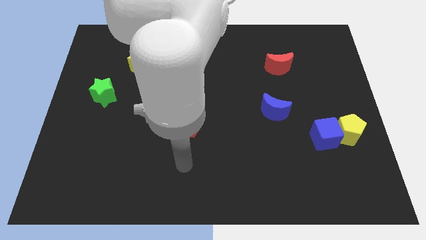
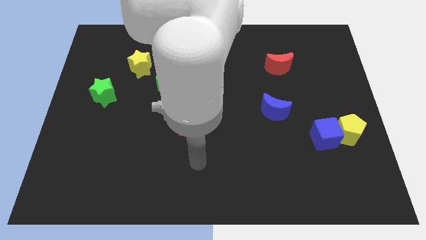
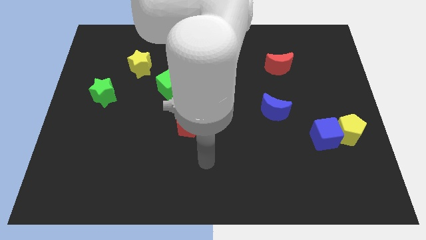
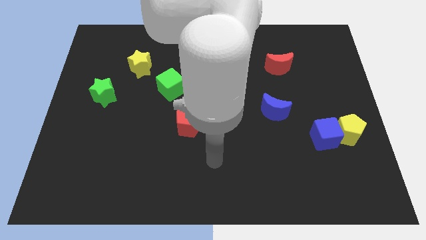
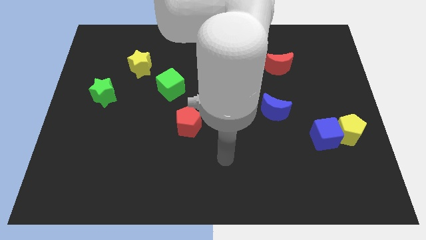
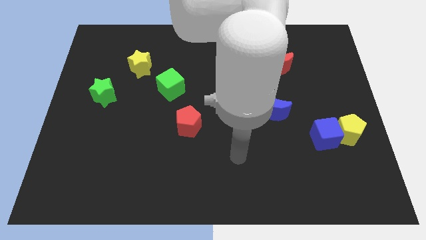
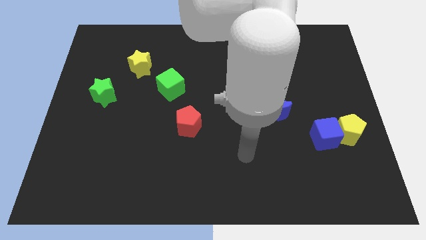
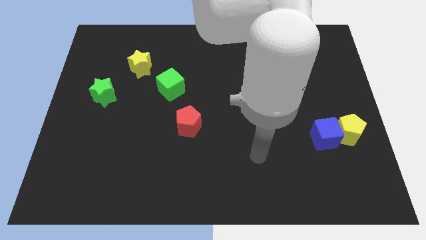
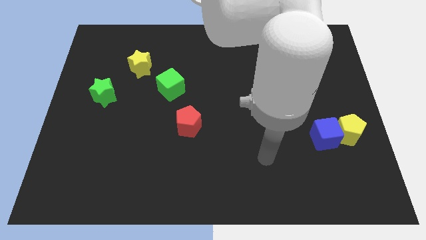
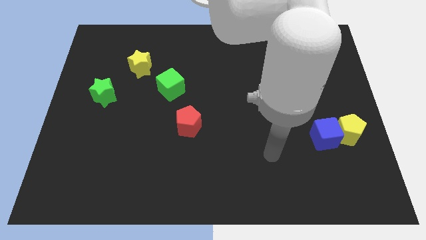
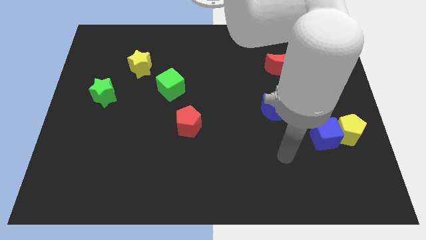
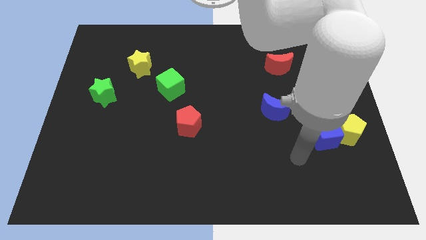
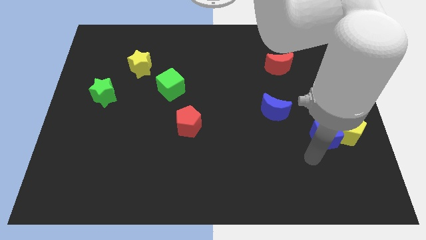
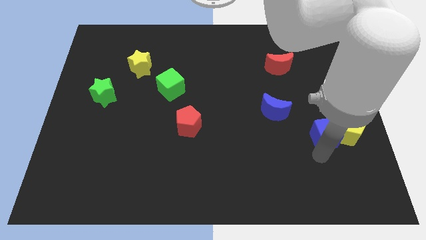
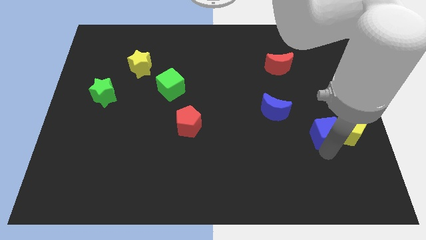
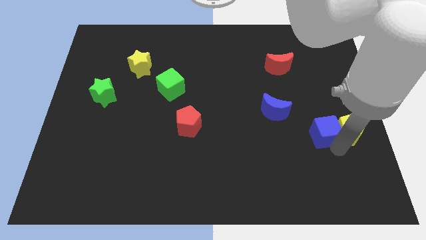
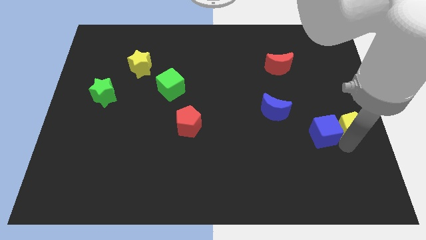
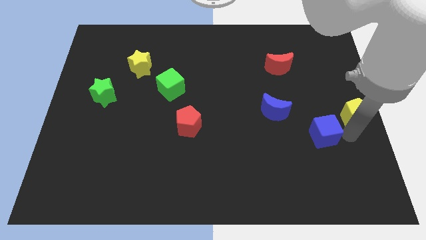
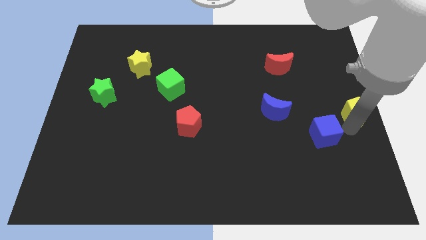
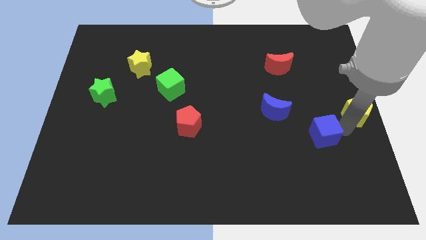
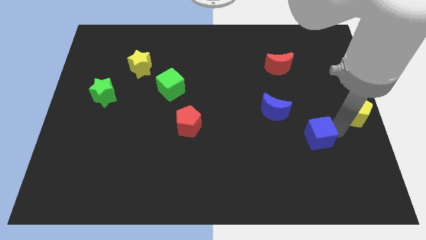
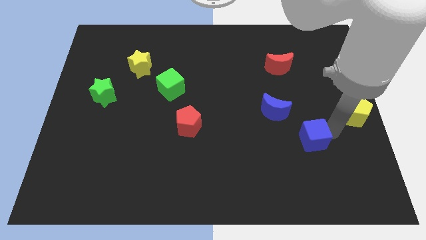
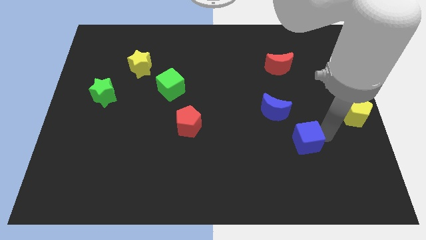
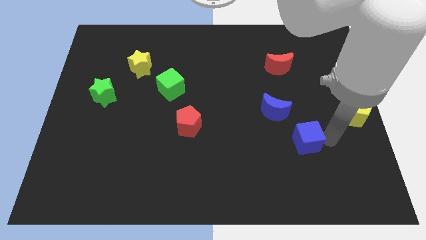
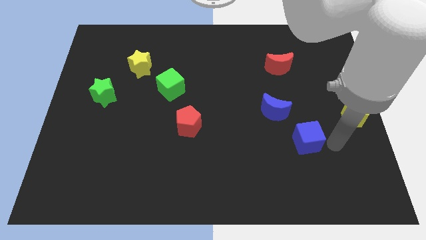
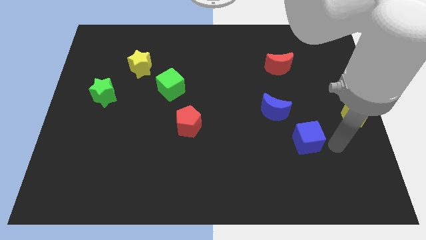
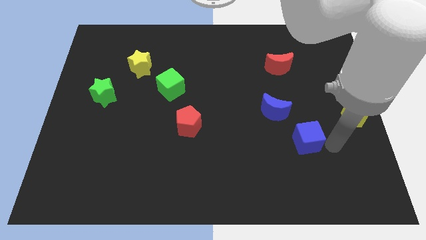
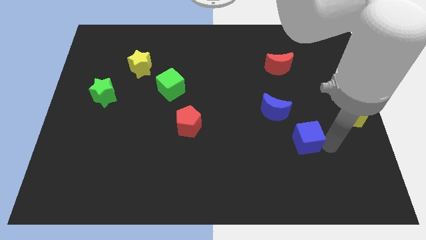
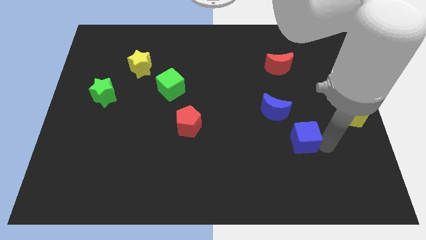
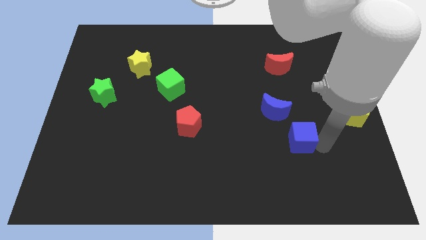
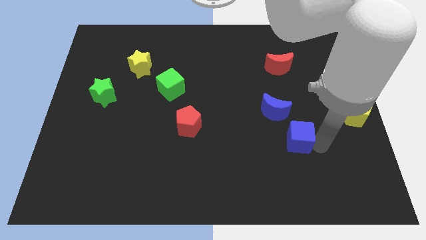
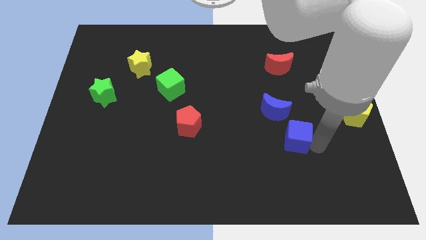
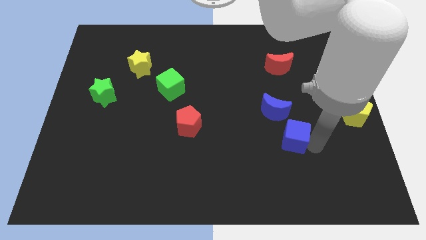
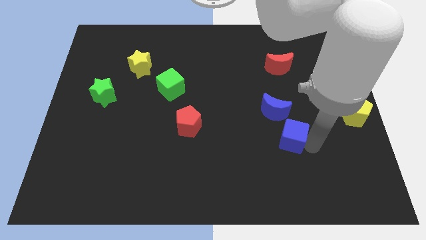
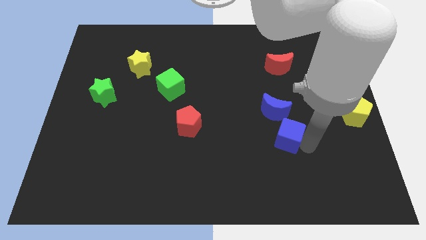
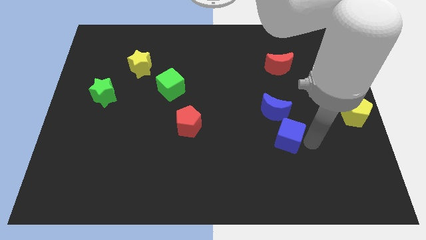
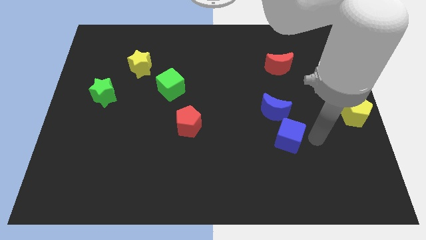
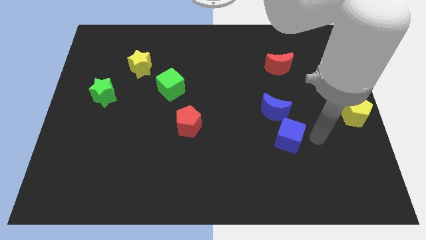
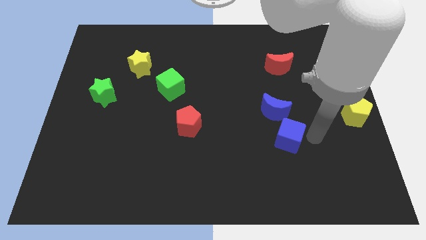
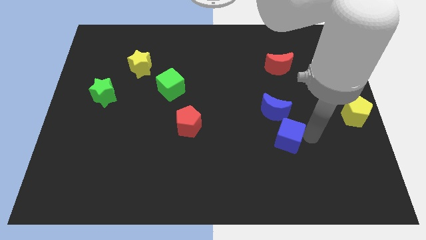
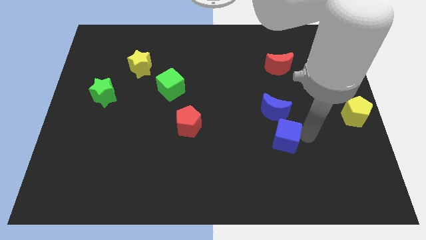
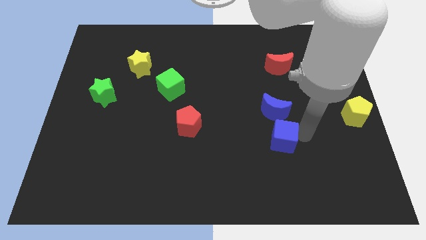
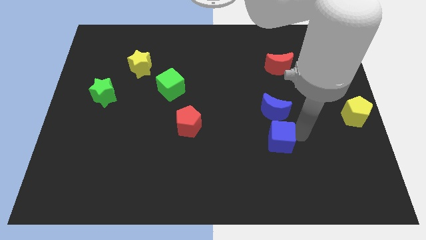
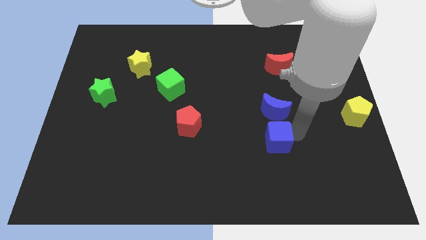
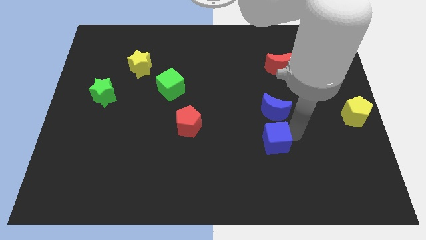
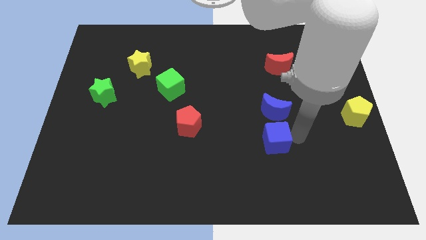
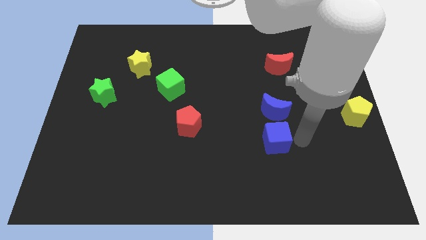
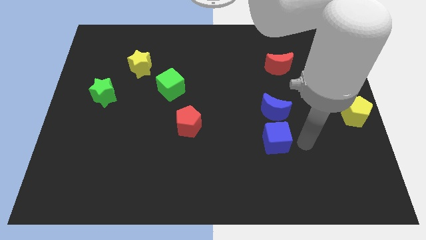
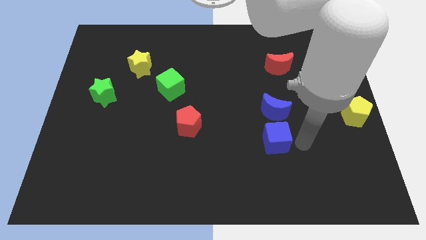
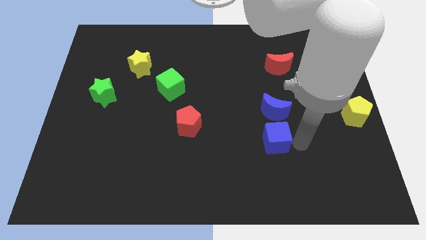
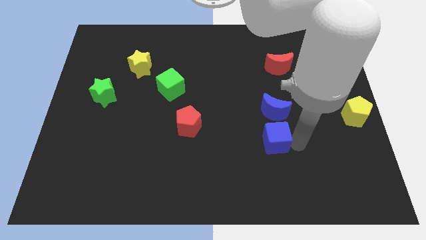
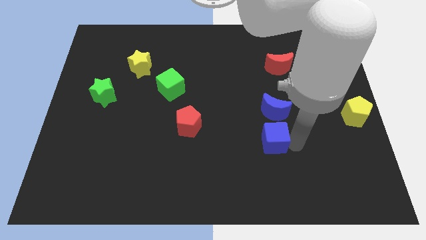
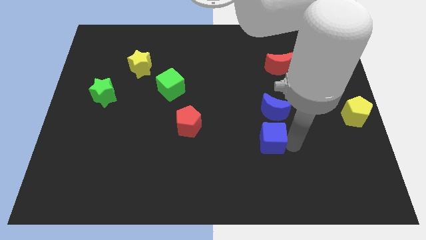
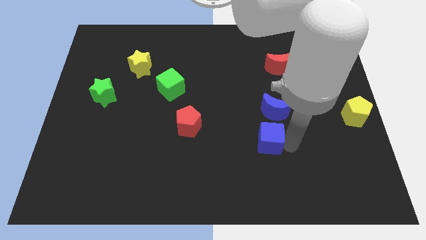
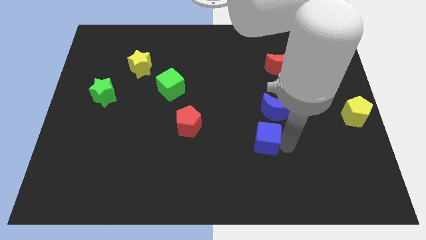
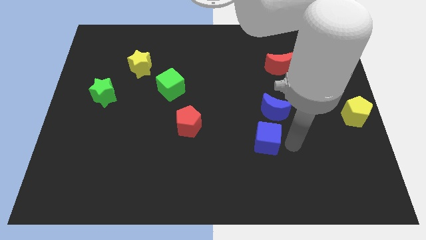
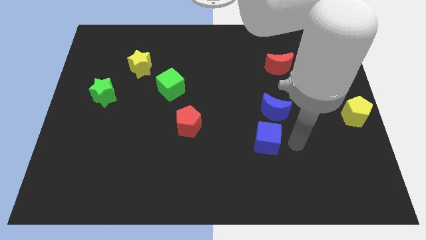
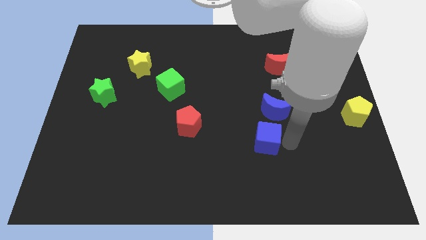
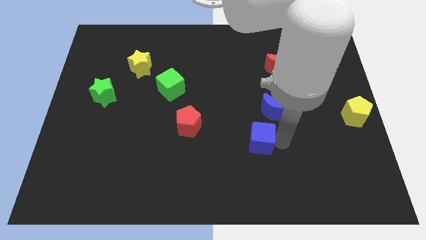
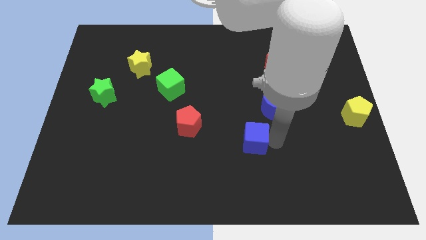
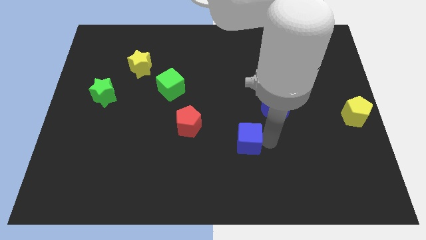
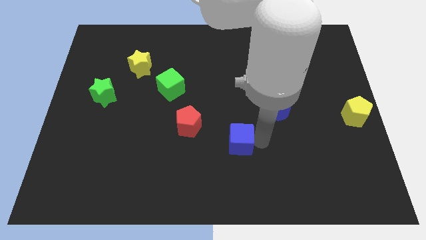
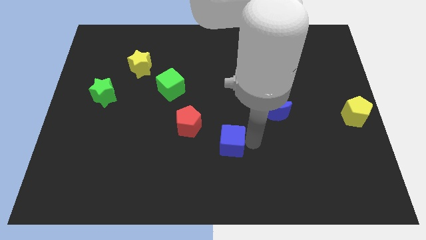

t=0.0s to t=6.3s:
slide the blue cube left

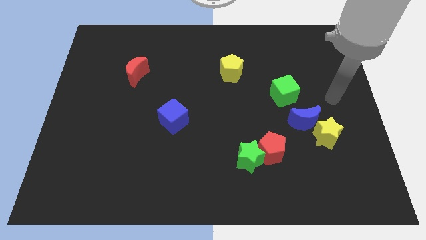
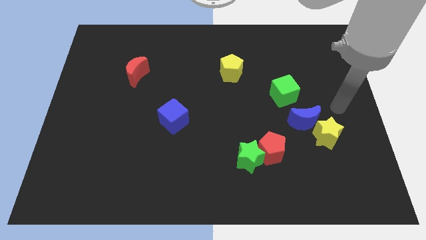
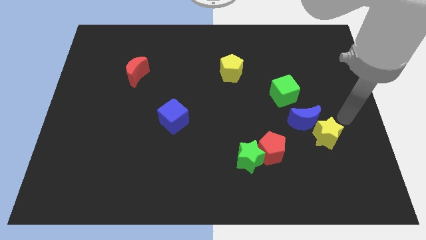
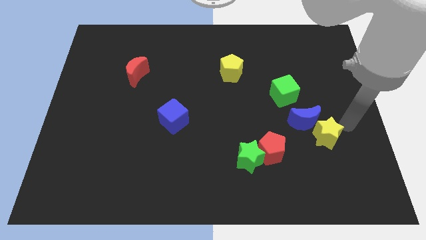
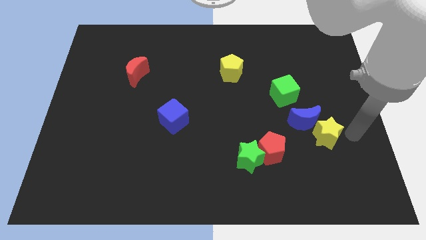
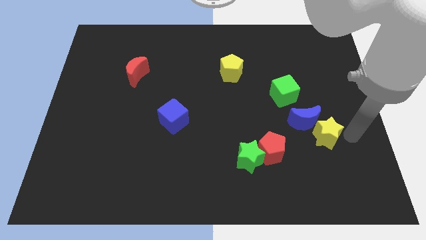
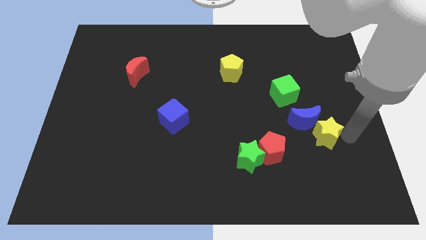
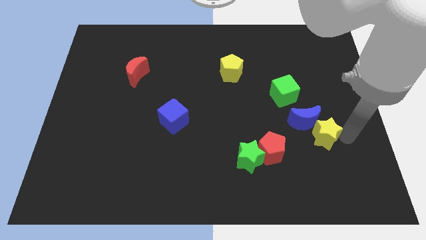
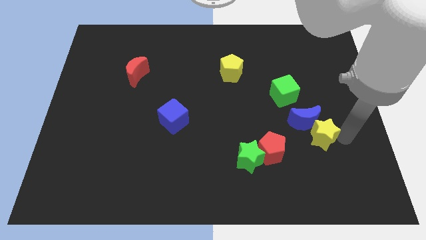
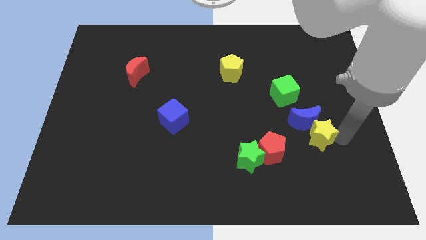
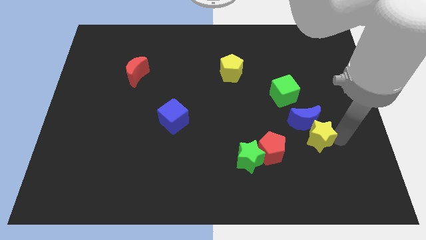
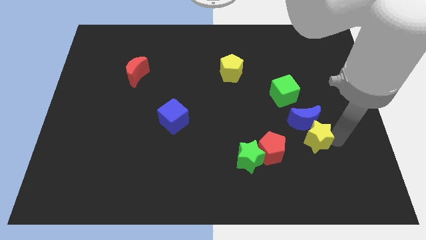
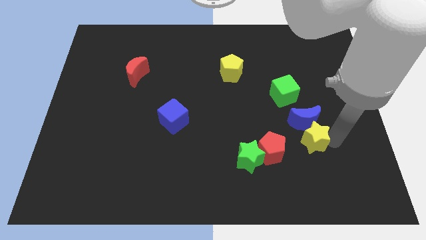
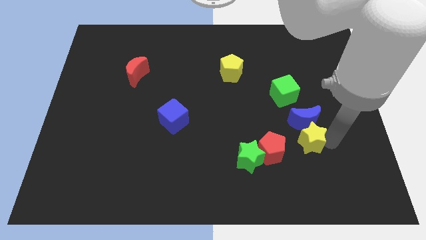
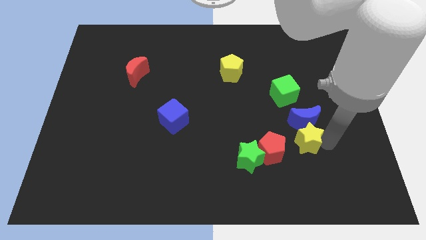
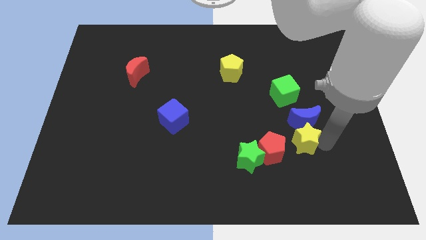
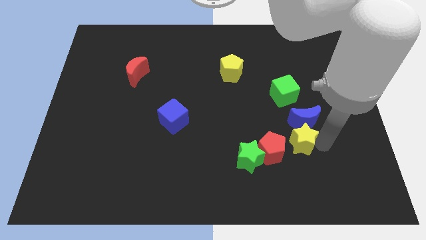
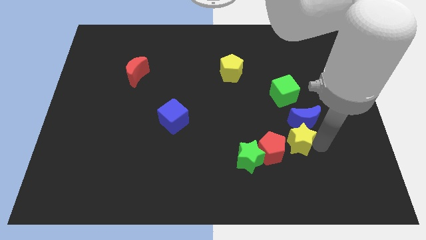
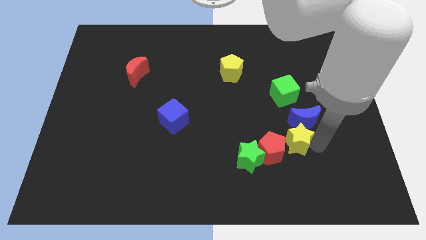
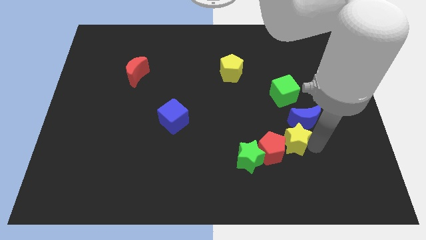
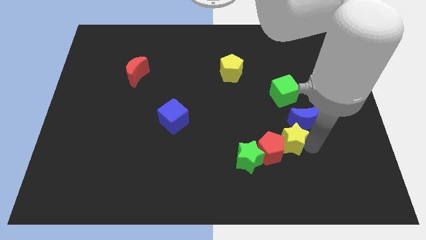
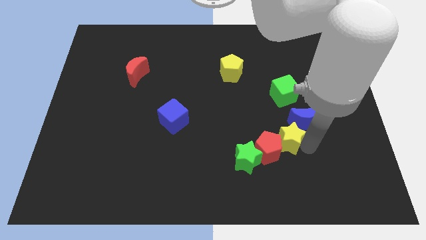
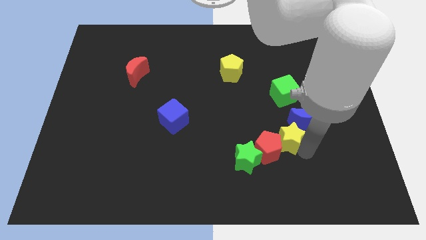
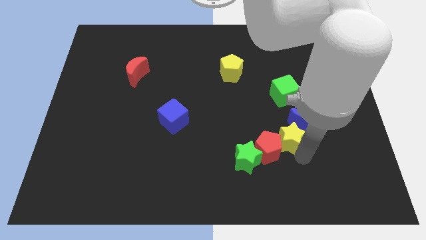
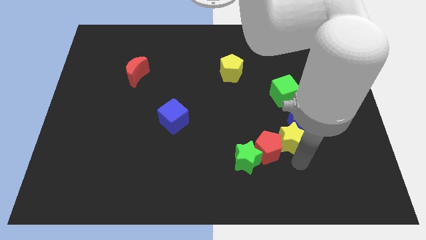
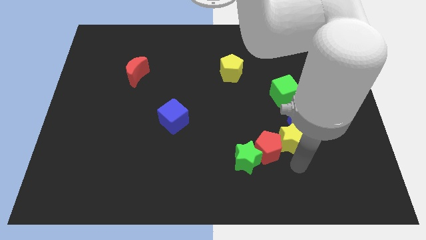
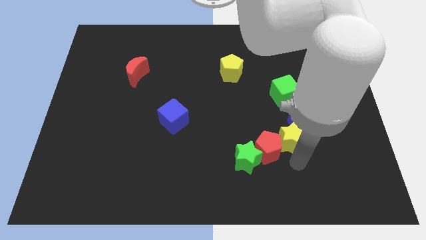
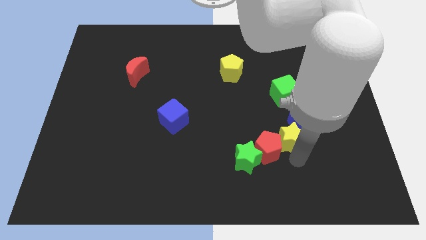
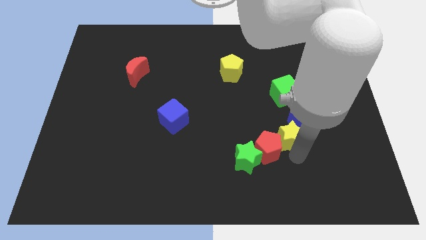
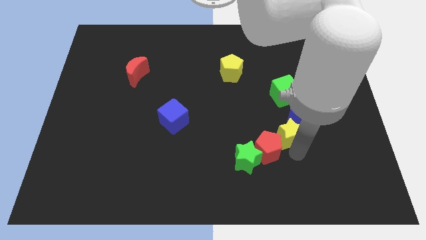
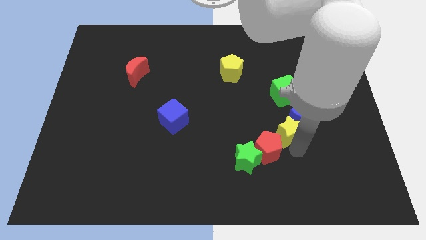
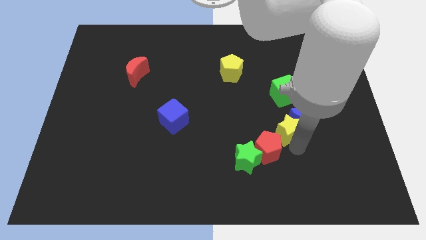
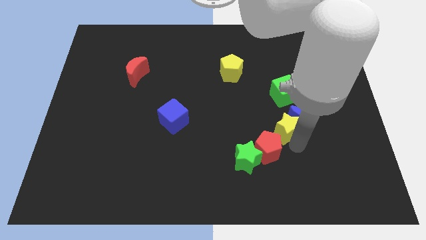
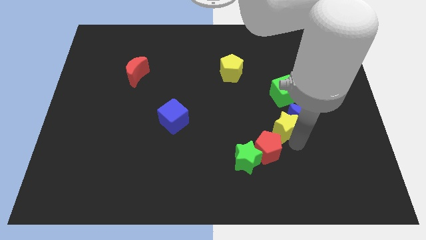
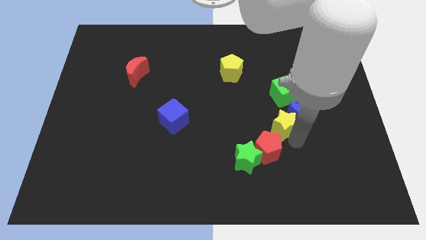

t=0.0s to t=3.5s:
slightly move the yellow star up and to the left
